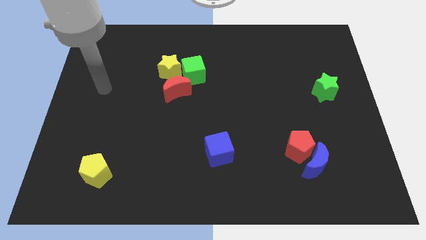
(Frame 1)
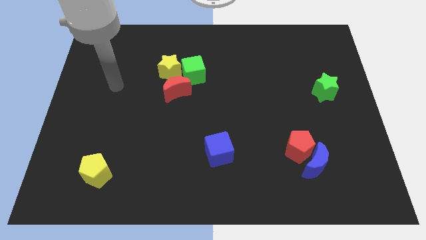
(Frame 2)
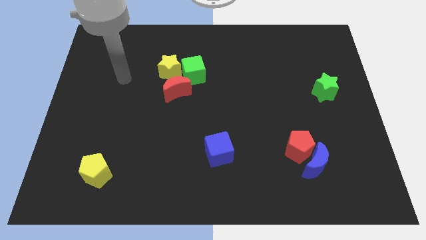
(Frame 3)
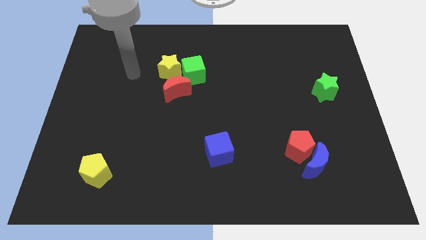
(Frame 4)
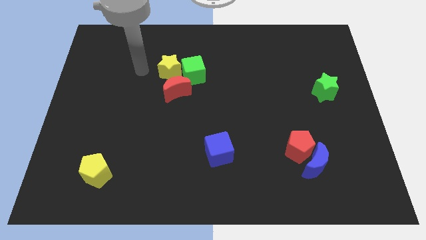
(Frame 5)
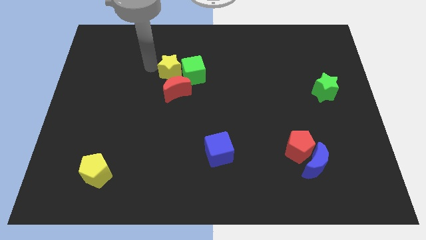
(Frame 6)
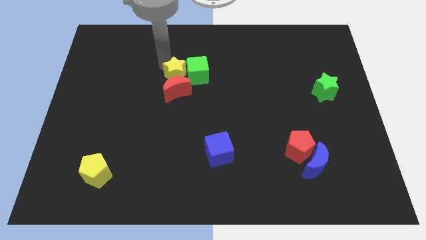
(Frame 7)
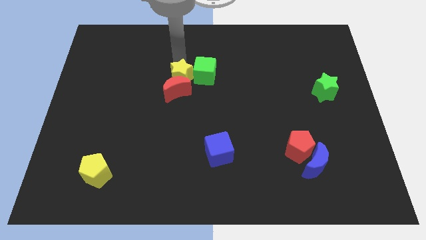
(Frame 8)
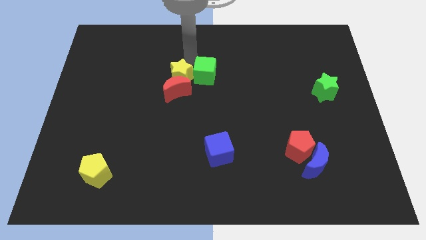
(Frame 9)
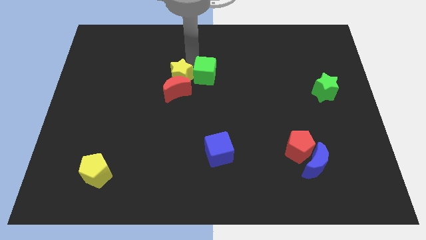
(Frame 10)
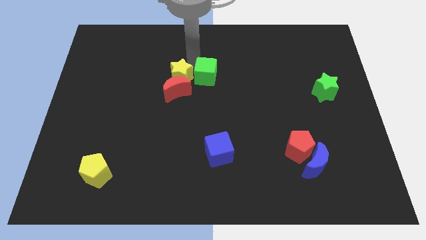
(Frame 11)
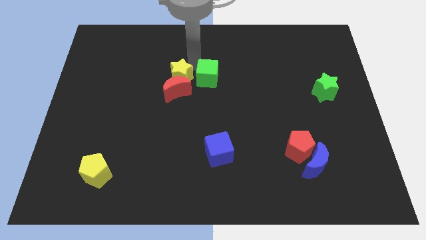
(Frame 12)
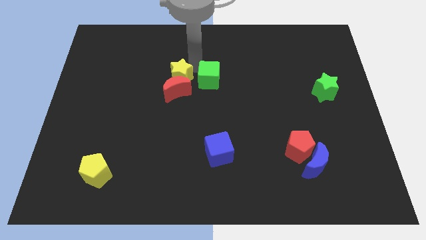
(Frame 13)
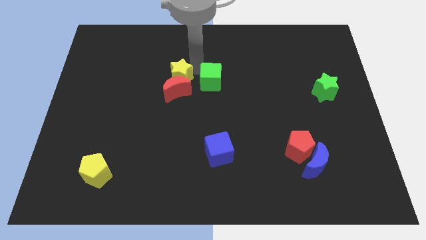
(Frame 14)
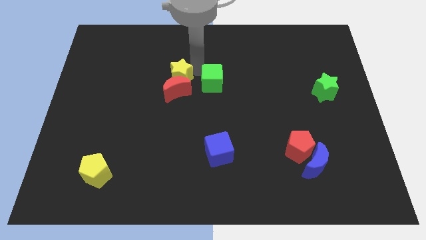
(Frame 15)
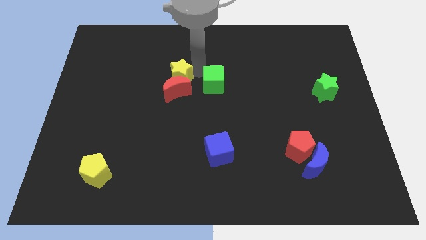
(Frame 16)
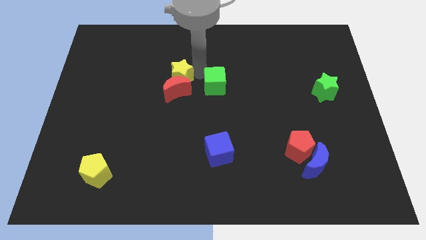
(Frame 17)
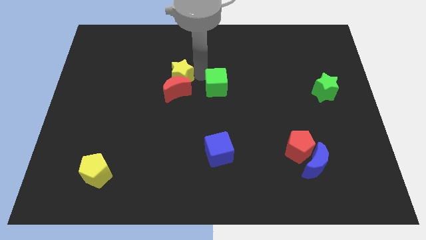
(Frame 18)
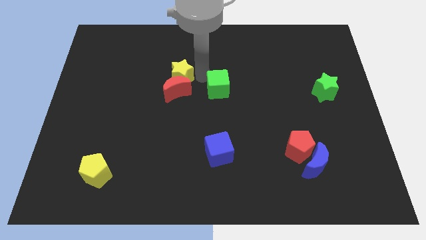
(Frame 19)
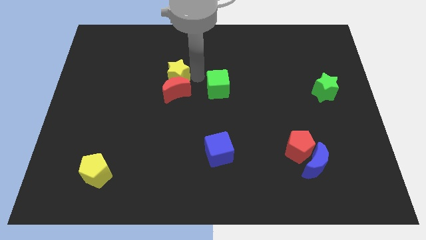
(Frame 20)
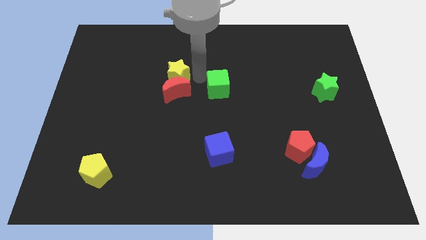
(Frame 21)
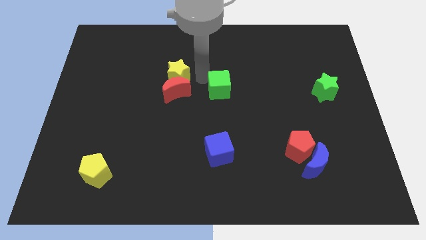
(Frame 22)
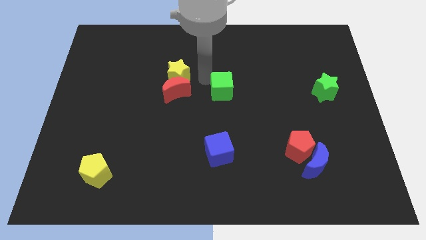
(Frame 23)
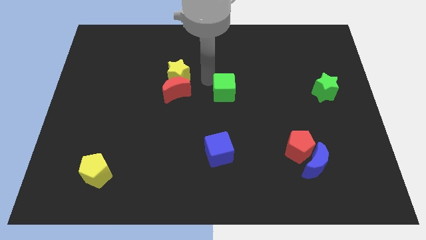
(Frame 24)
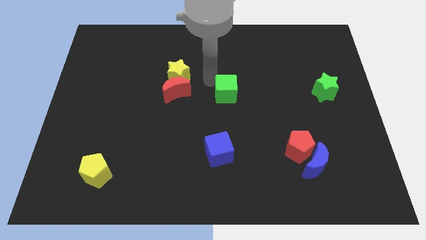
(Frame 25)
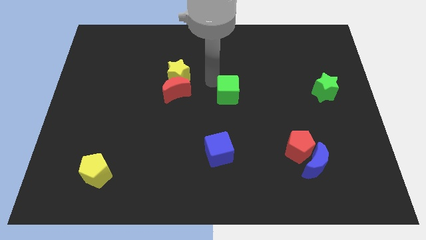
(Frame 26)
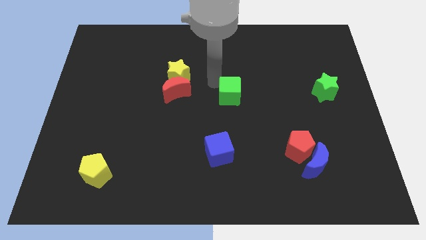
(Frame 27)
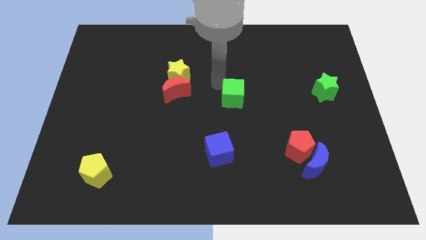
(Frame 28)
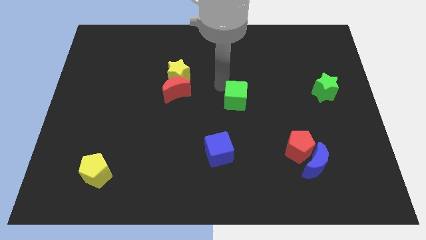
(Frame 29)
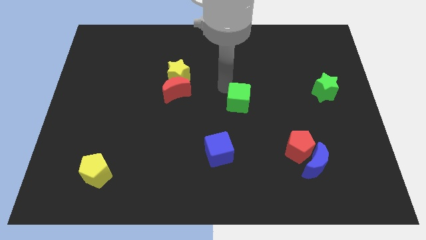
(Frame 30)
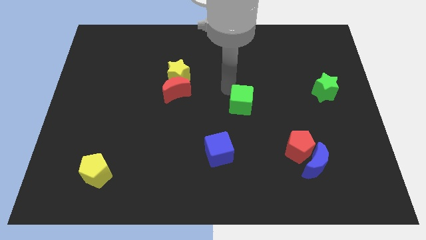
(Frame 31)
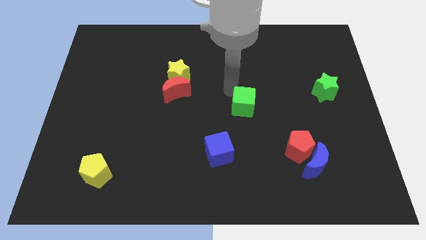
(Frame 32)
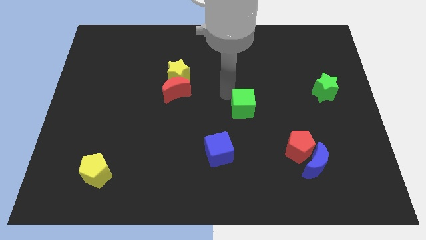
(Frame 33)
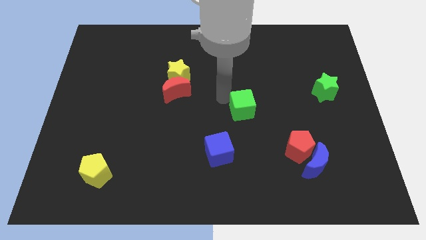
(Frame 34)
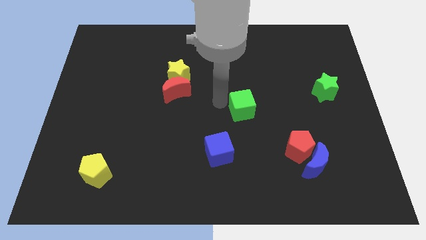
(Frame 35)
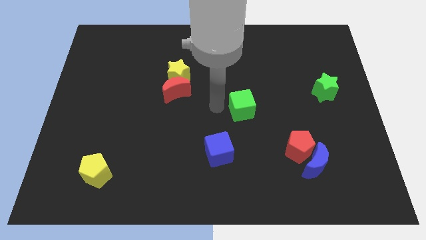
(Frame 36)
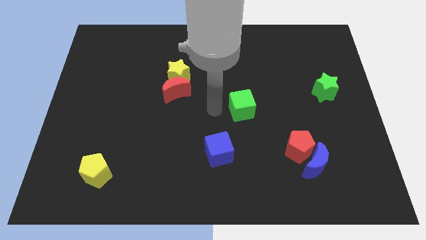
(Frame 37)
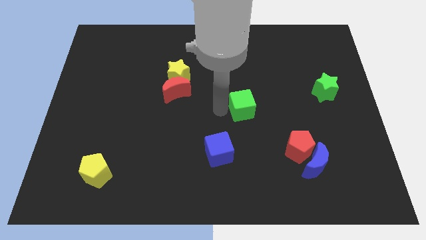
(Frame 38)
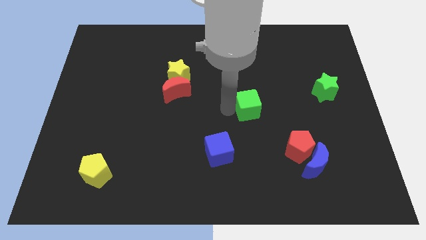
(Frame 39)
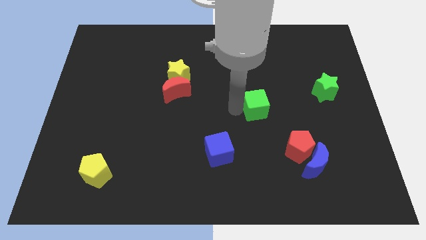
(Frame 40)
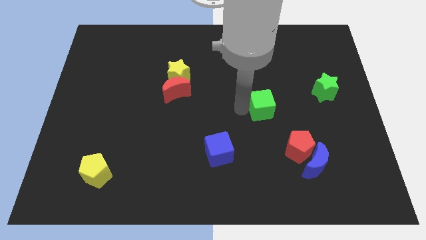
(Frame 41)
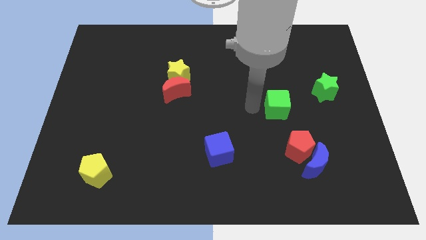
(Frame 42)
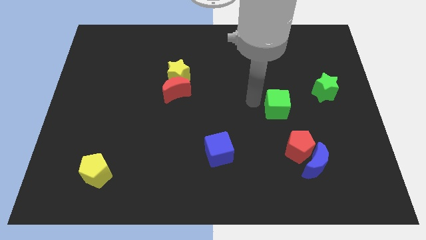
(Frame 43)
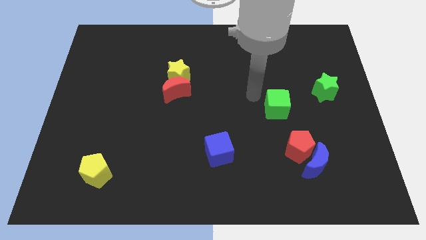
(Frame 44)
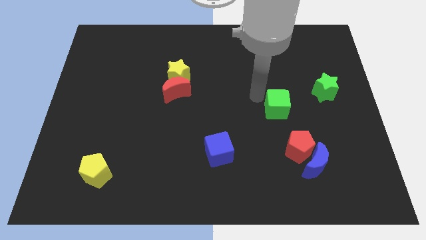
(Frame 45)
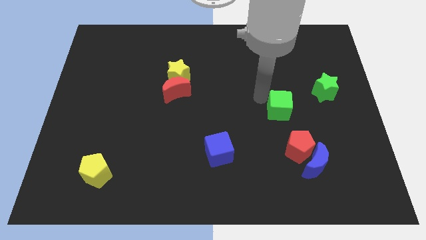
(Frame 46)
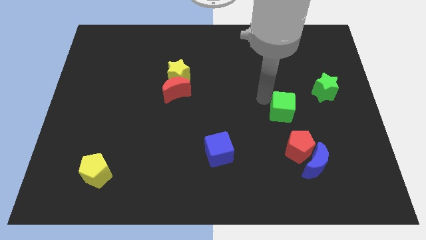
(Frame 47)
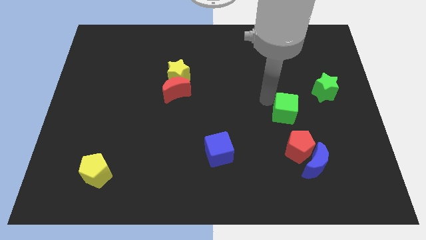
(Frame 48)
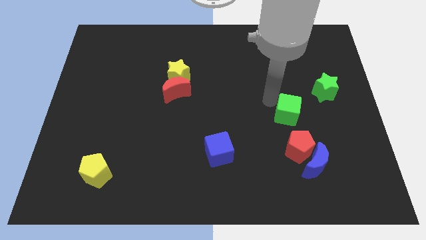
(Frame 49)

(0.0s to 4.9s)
move the green cube to the top side of the blue moon

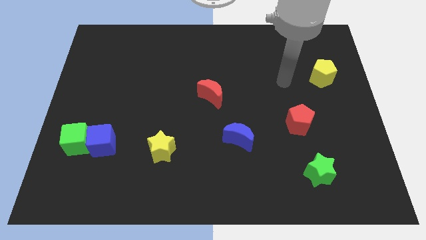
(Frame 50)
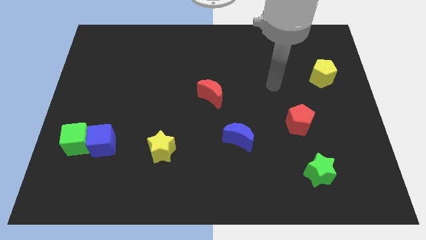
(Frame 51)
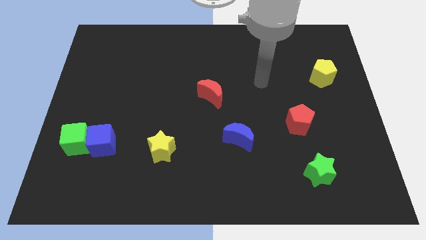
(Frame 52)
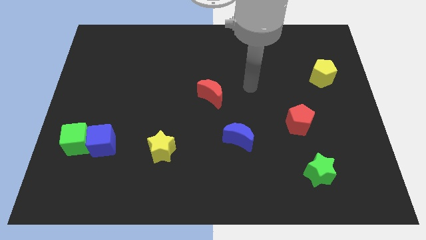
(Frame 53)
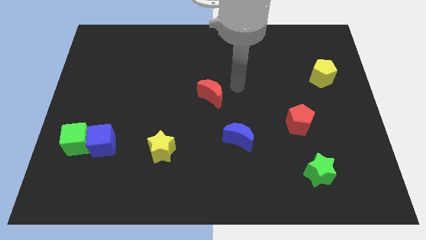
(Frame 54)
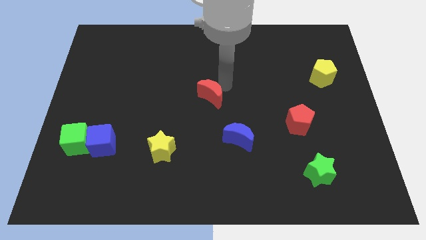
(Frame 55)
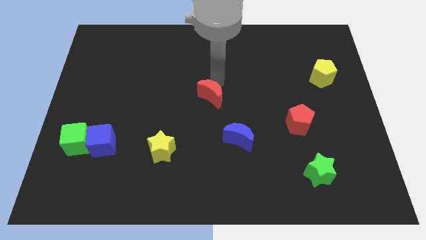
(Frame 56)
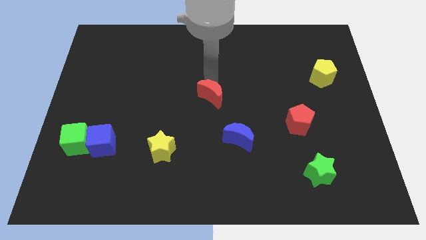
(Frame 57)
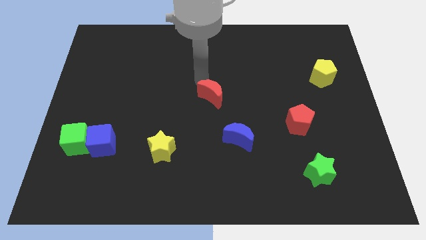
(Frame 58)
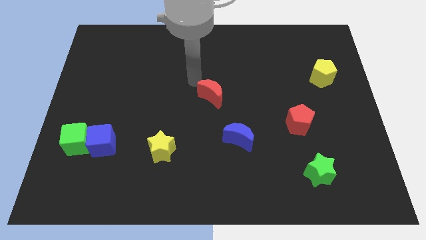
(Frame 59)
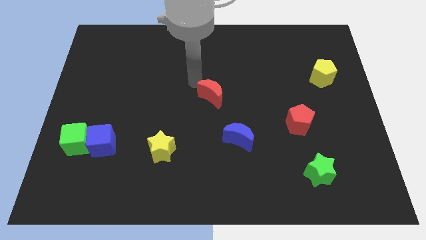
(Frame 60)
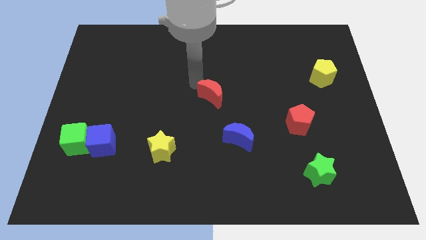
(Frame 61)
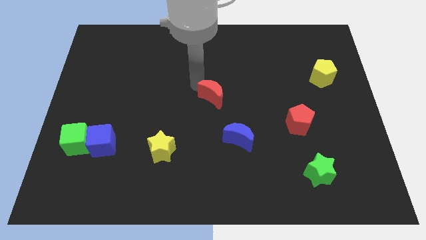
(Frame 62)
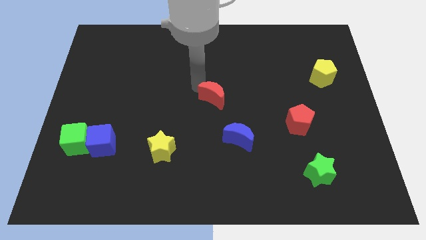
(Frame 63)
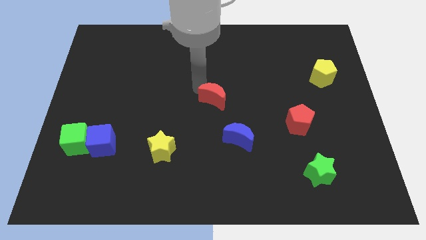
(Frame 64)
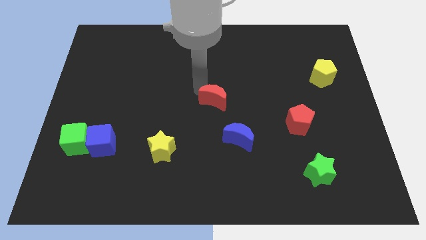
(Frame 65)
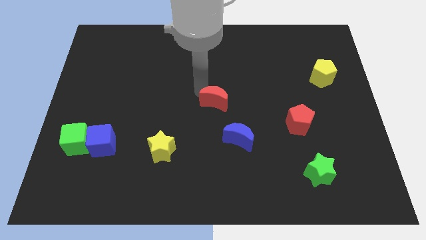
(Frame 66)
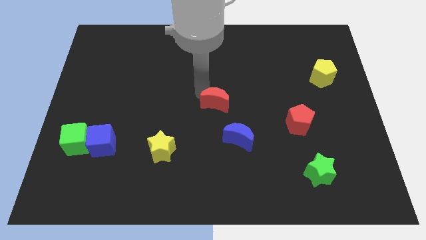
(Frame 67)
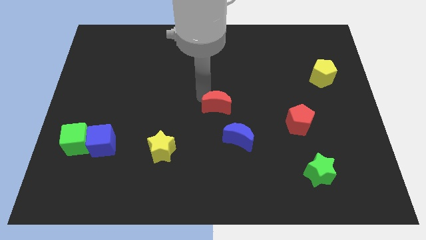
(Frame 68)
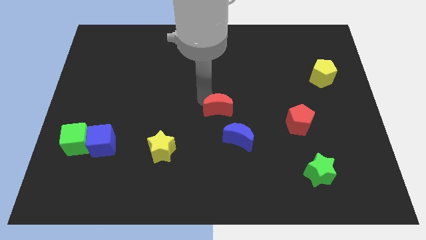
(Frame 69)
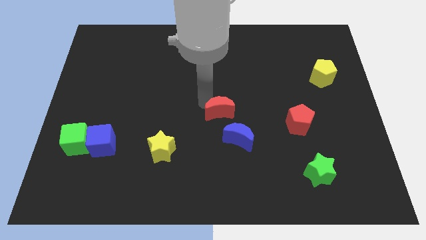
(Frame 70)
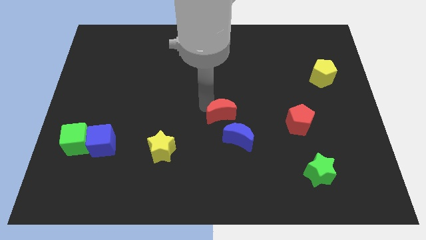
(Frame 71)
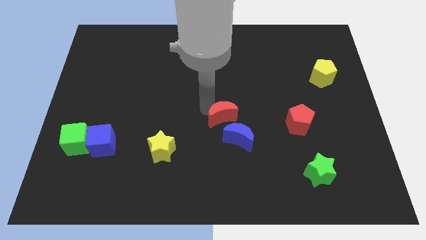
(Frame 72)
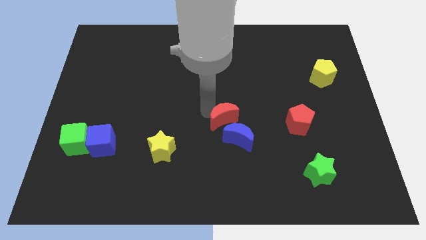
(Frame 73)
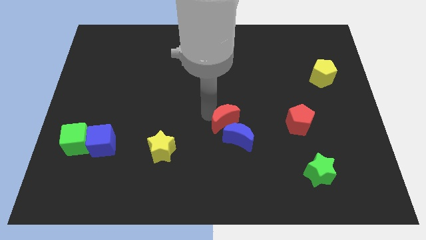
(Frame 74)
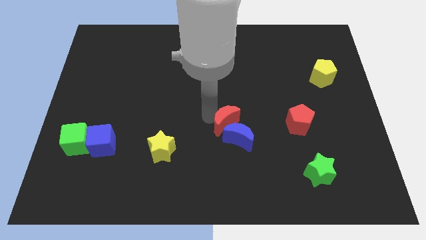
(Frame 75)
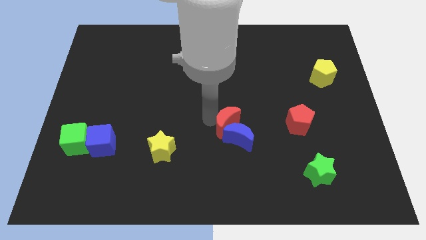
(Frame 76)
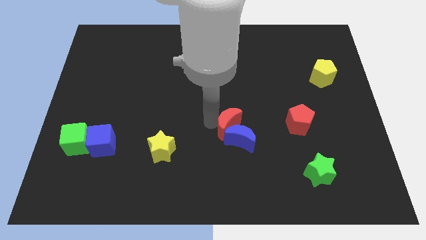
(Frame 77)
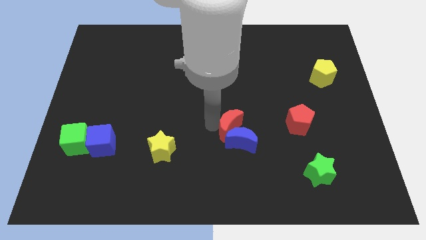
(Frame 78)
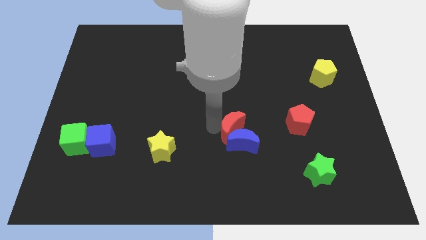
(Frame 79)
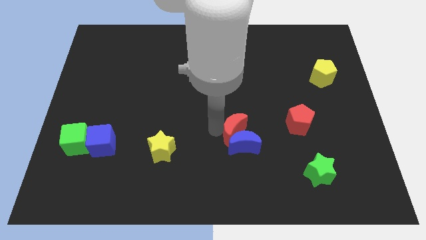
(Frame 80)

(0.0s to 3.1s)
move the red moon diagonally up and to the right of the blue moon
